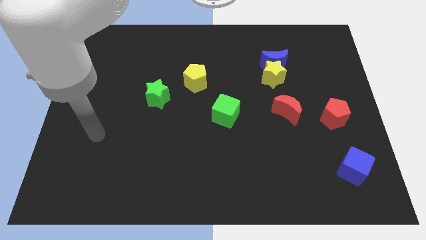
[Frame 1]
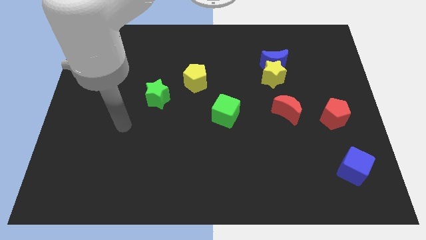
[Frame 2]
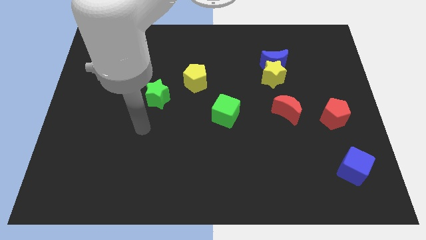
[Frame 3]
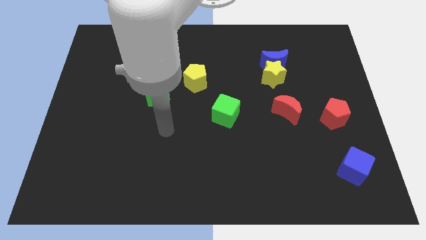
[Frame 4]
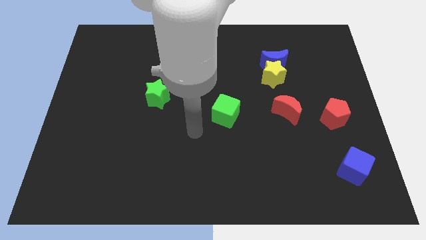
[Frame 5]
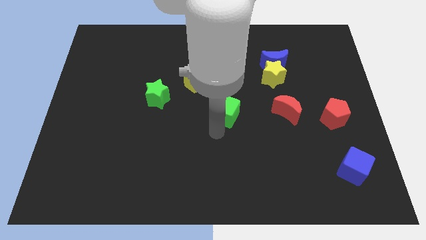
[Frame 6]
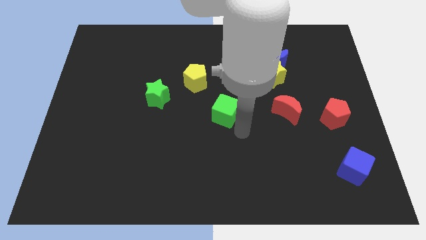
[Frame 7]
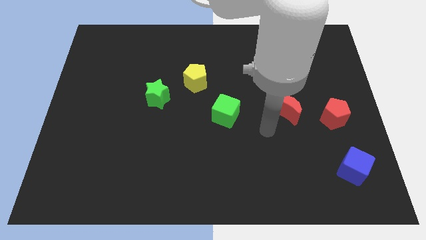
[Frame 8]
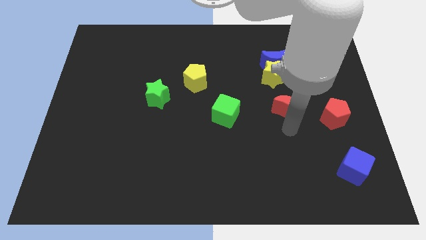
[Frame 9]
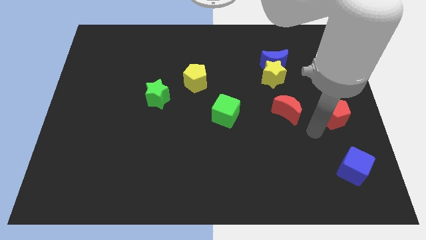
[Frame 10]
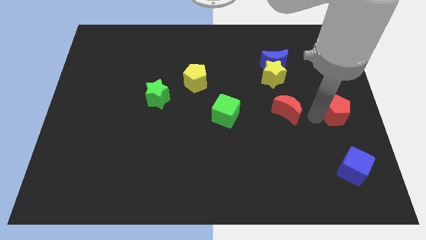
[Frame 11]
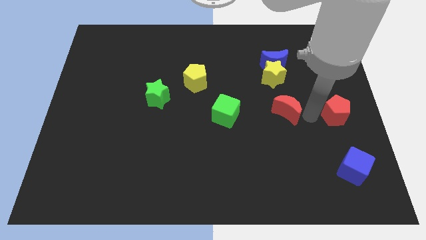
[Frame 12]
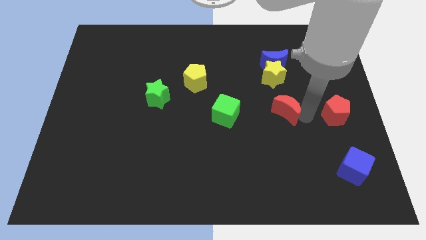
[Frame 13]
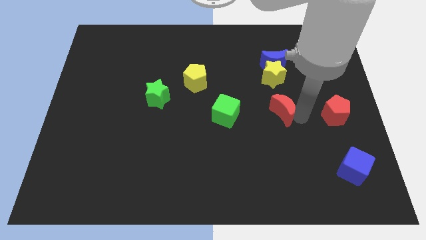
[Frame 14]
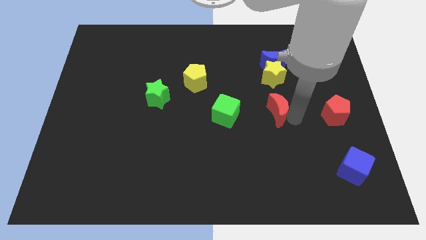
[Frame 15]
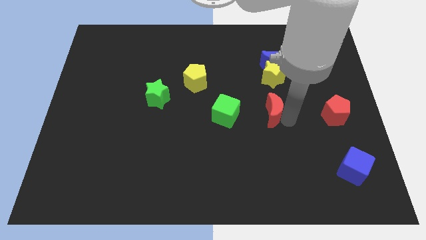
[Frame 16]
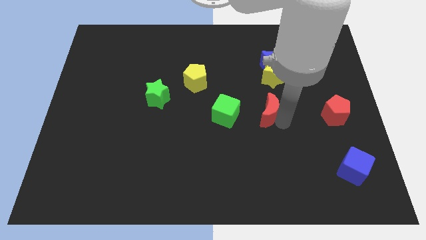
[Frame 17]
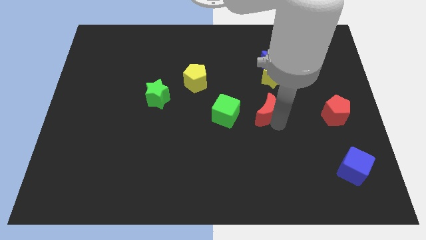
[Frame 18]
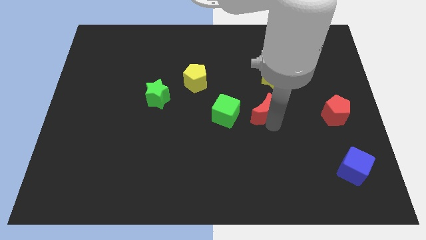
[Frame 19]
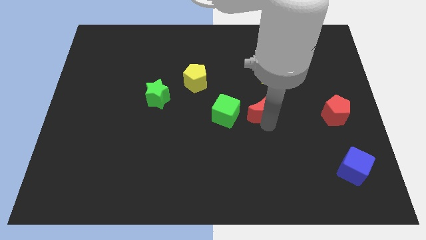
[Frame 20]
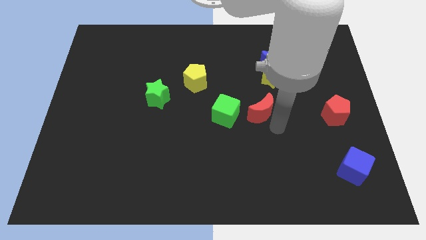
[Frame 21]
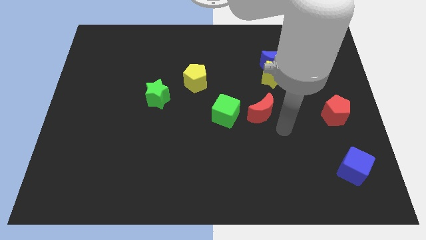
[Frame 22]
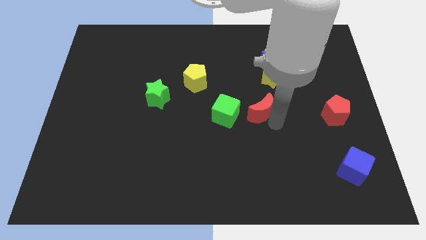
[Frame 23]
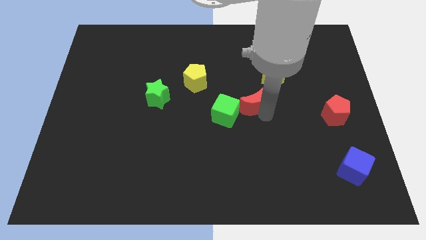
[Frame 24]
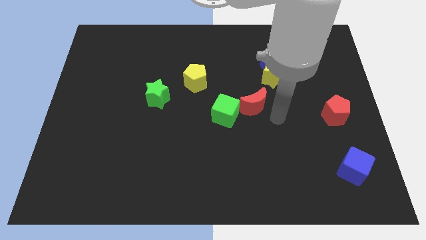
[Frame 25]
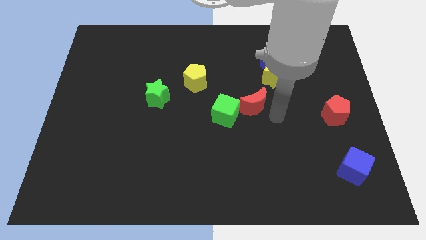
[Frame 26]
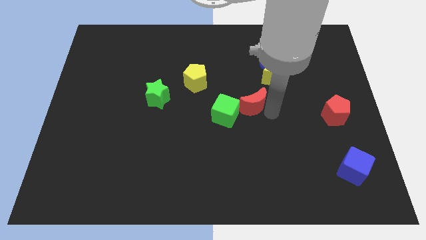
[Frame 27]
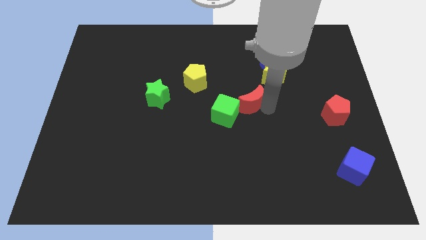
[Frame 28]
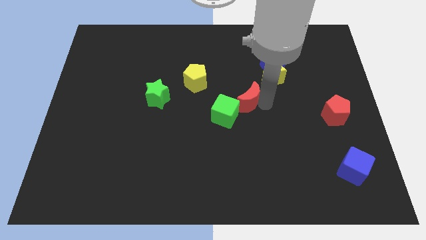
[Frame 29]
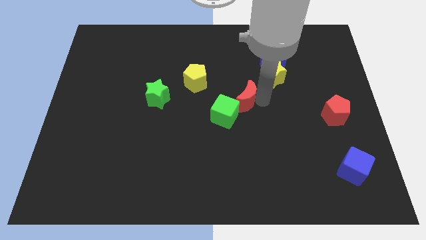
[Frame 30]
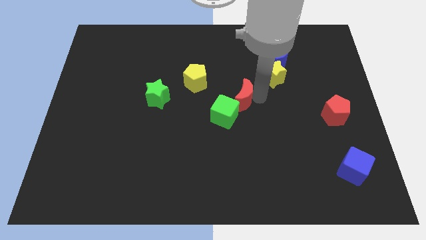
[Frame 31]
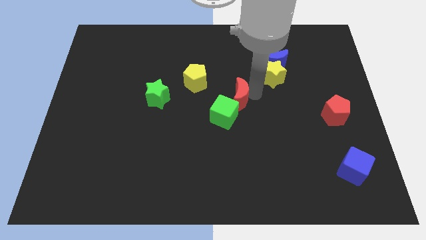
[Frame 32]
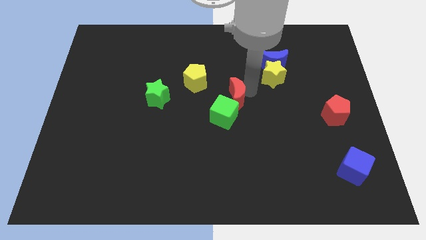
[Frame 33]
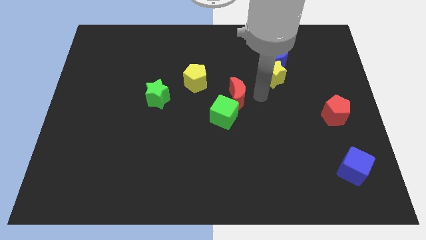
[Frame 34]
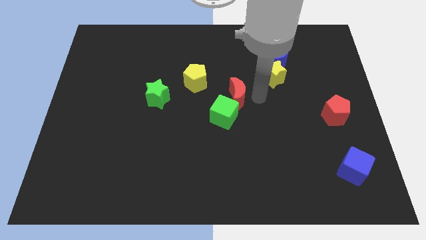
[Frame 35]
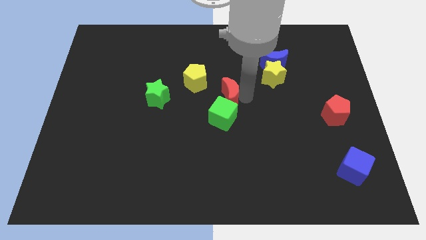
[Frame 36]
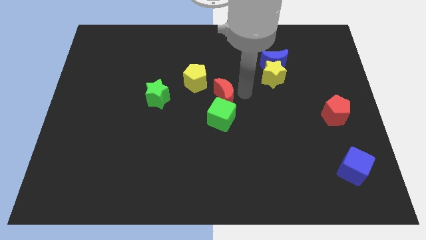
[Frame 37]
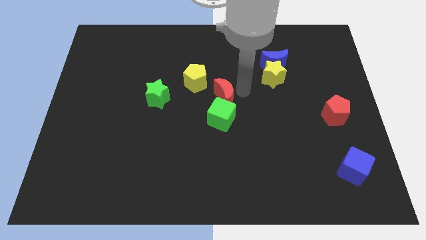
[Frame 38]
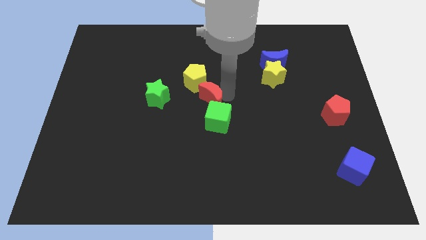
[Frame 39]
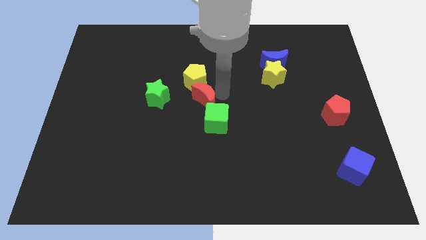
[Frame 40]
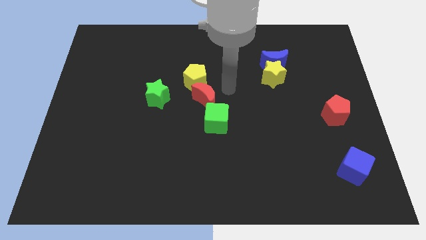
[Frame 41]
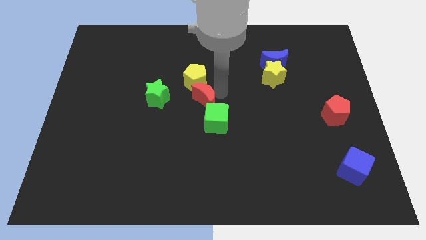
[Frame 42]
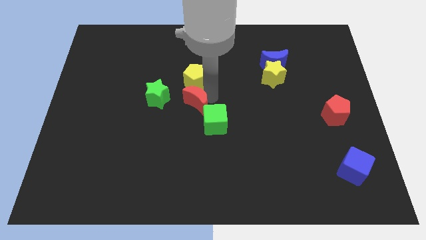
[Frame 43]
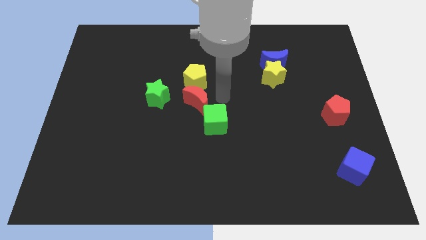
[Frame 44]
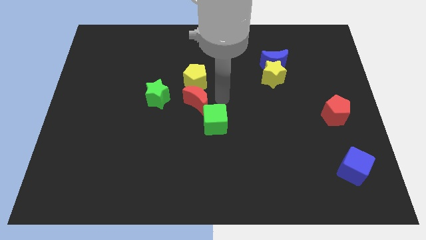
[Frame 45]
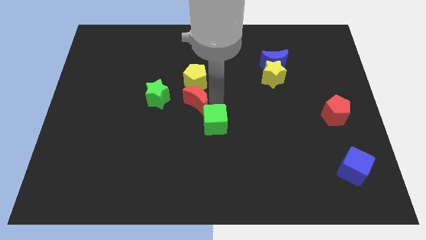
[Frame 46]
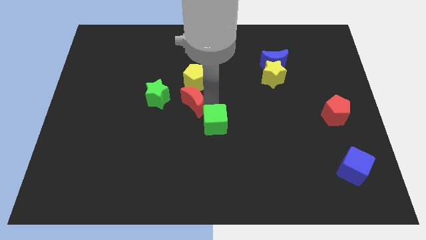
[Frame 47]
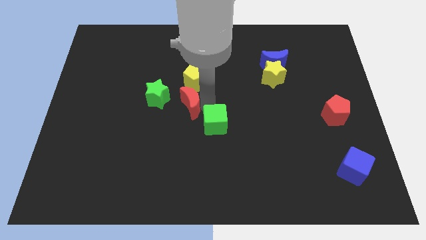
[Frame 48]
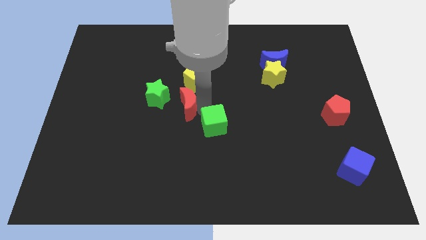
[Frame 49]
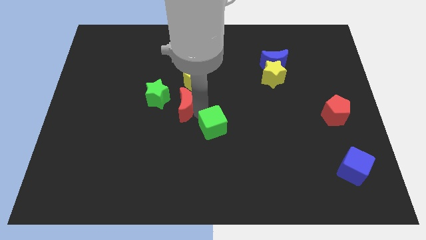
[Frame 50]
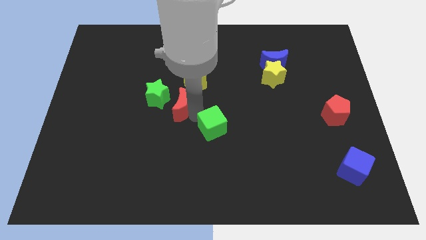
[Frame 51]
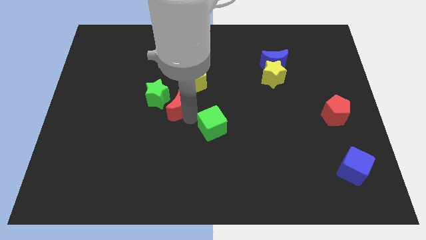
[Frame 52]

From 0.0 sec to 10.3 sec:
slide the red moon next to the green star

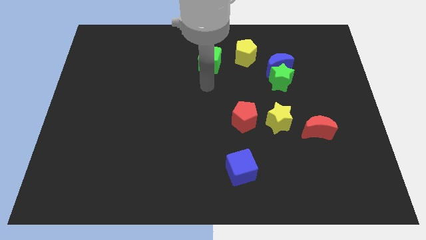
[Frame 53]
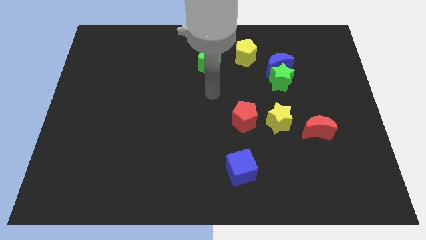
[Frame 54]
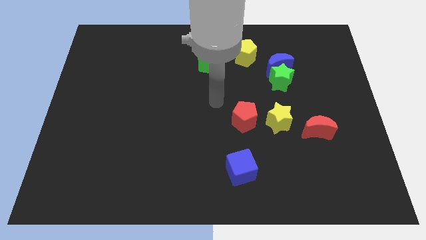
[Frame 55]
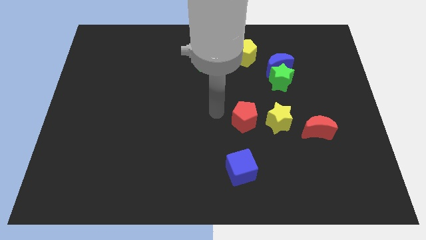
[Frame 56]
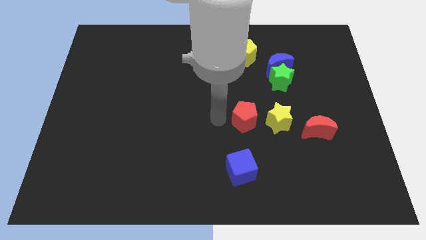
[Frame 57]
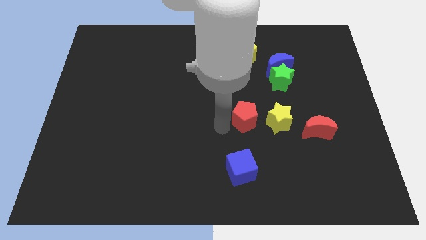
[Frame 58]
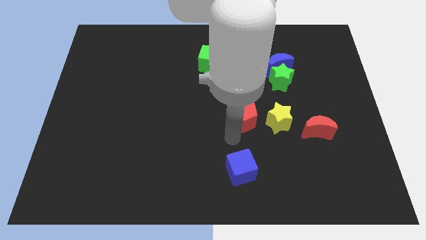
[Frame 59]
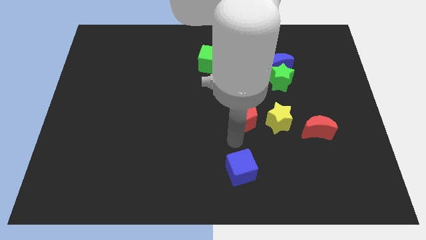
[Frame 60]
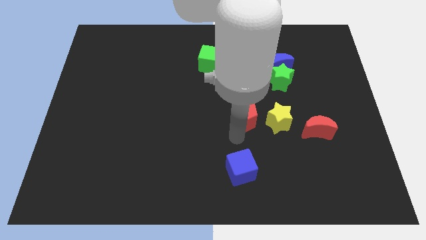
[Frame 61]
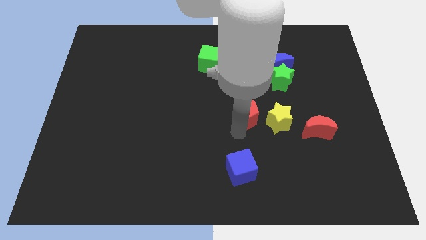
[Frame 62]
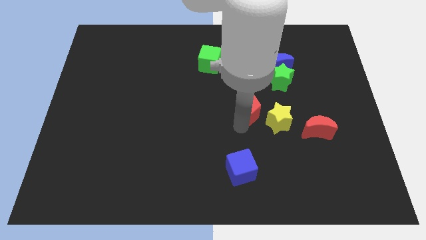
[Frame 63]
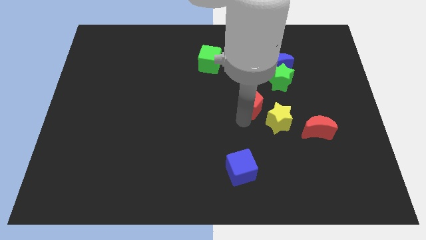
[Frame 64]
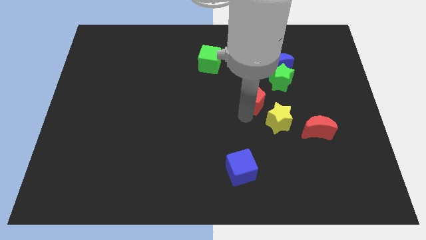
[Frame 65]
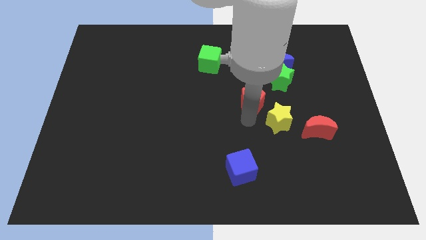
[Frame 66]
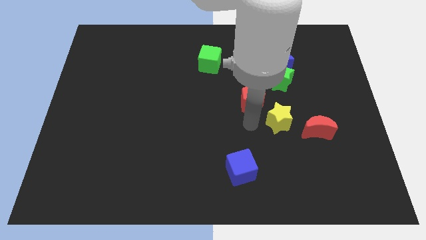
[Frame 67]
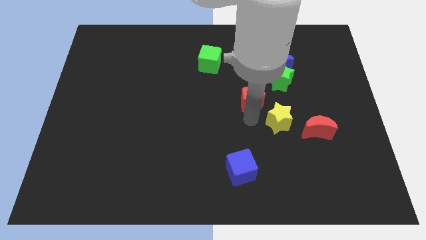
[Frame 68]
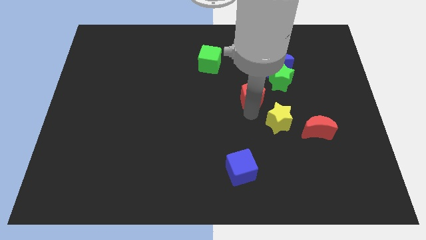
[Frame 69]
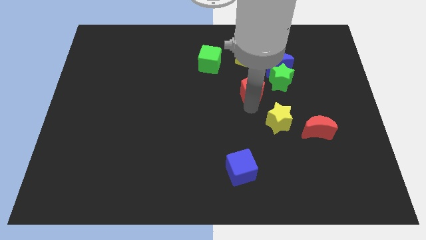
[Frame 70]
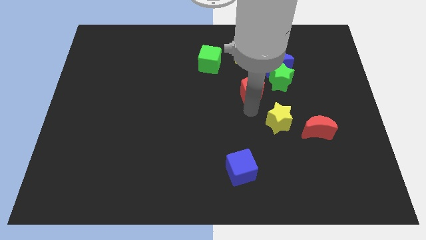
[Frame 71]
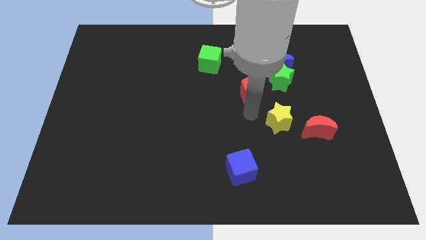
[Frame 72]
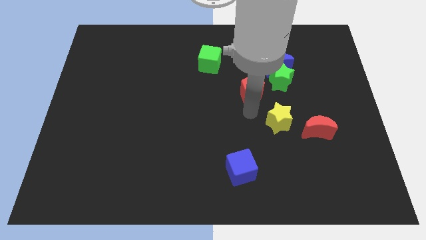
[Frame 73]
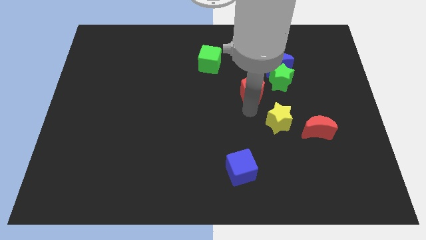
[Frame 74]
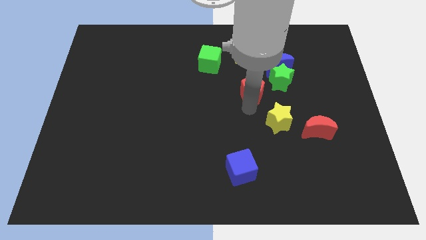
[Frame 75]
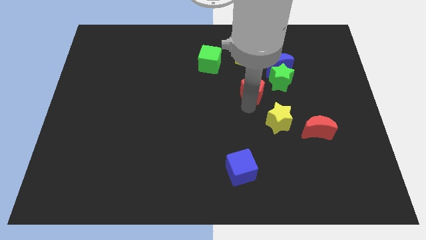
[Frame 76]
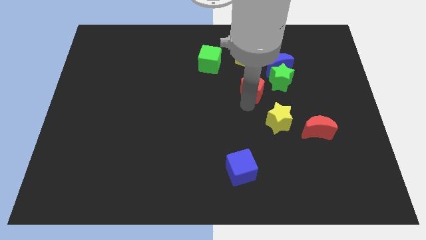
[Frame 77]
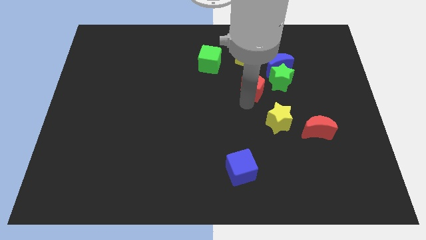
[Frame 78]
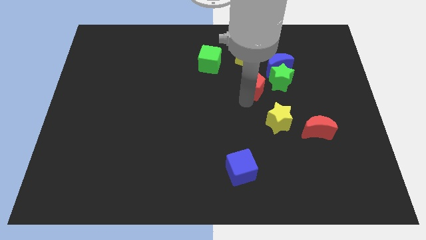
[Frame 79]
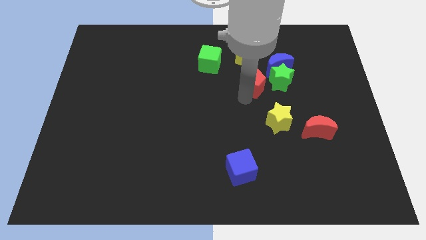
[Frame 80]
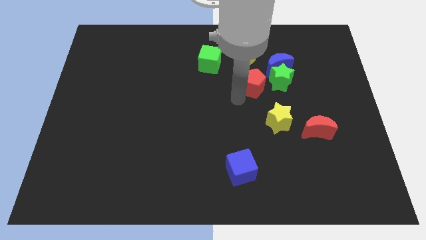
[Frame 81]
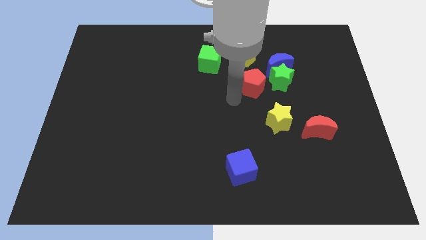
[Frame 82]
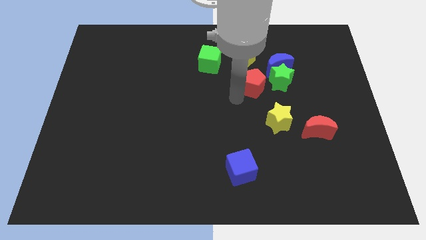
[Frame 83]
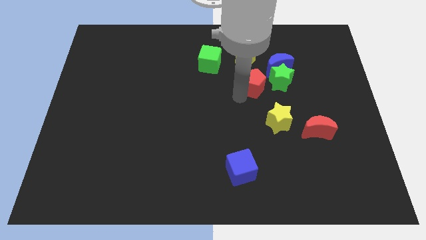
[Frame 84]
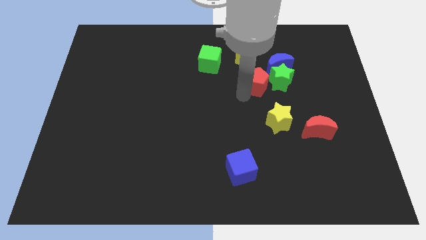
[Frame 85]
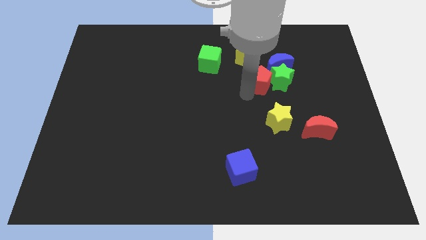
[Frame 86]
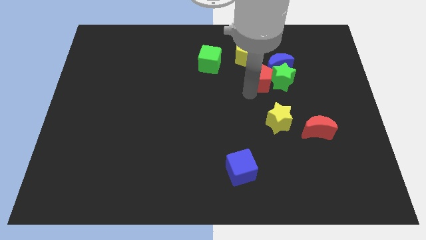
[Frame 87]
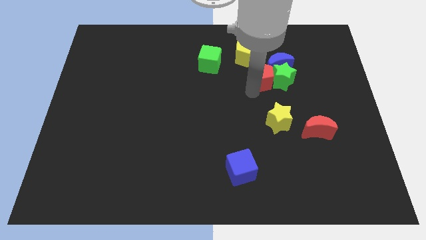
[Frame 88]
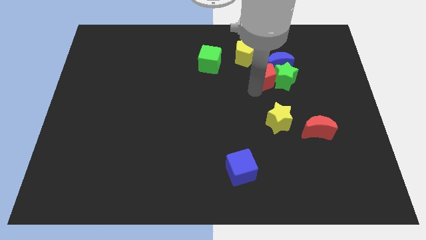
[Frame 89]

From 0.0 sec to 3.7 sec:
slide the red pentagon to the blue moon
